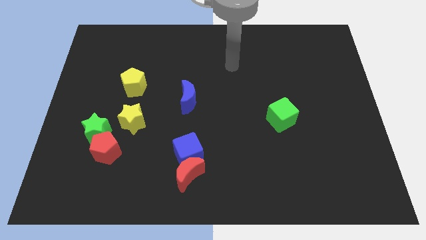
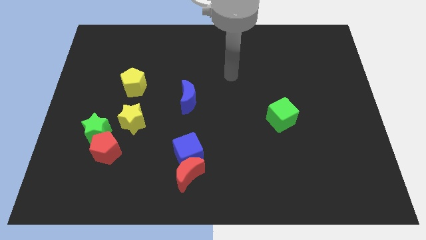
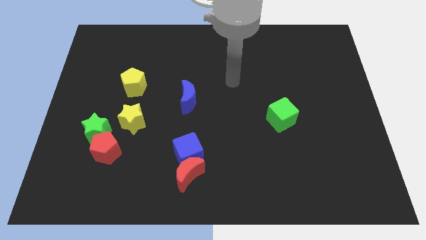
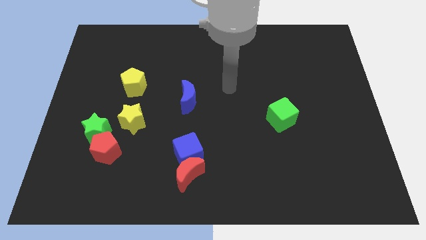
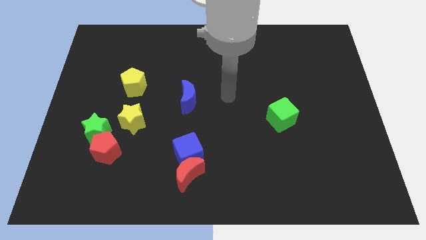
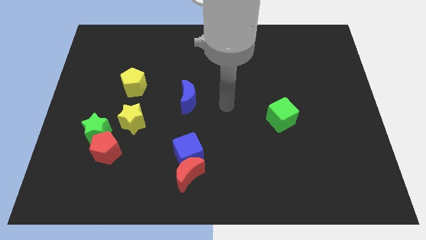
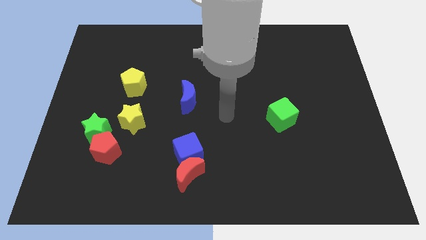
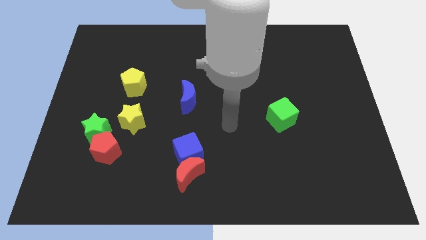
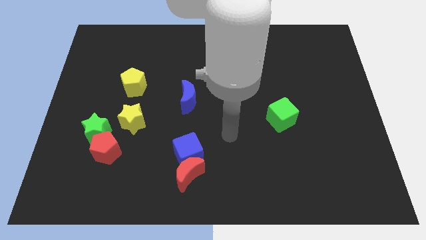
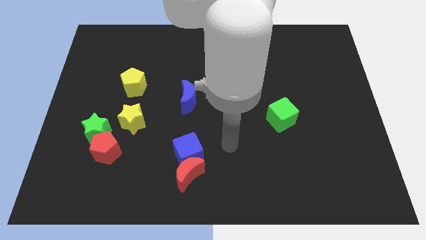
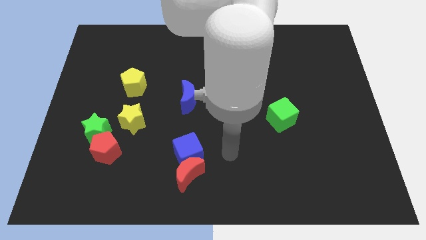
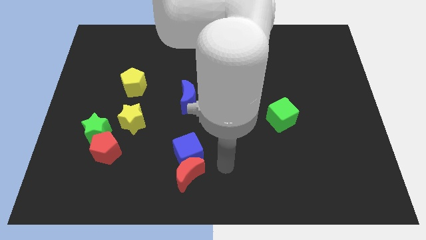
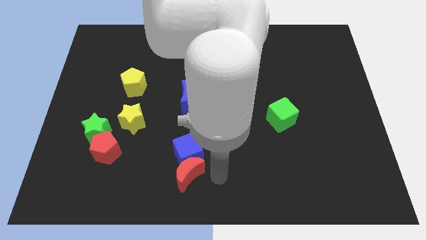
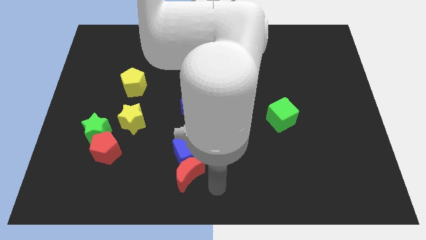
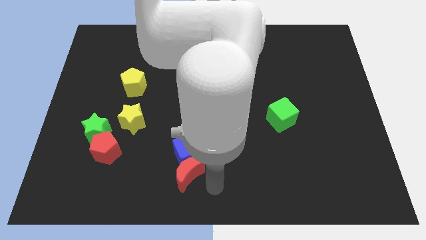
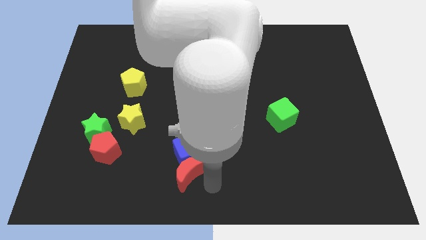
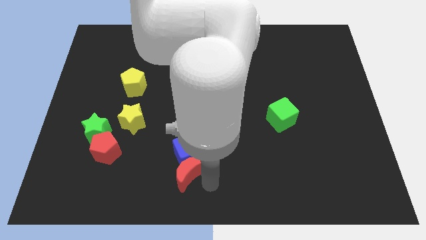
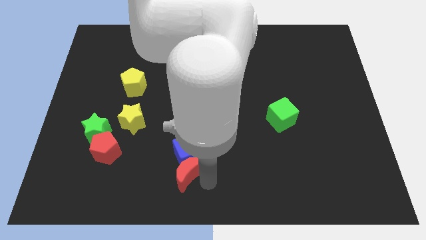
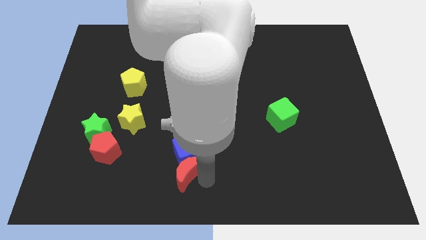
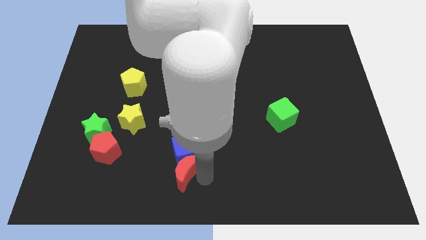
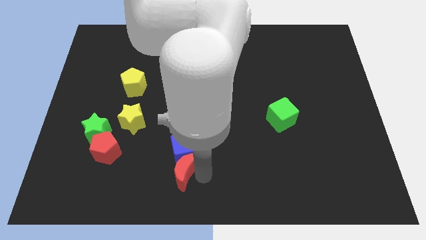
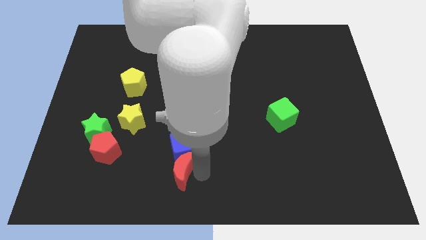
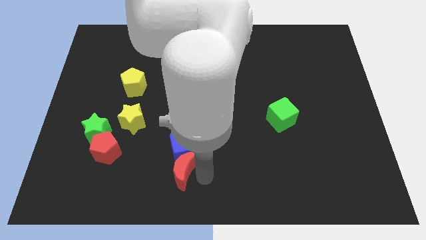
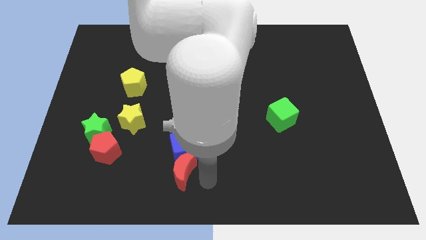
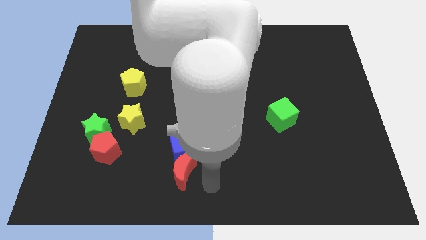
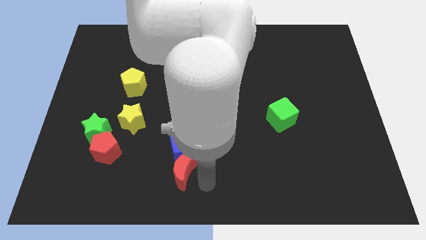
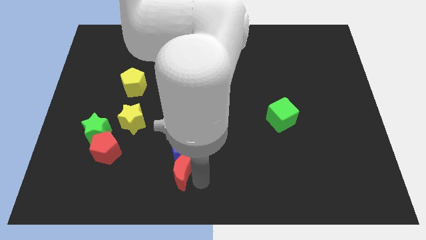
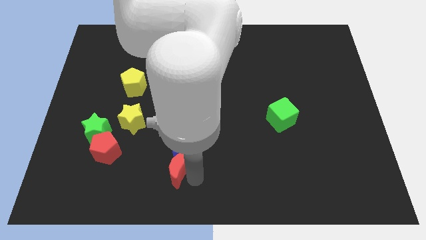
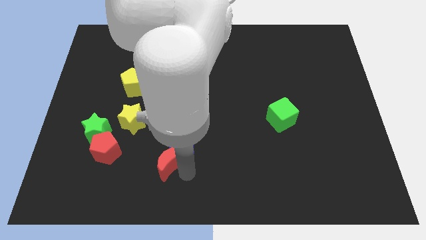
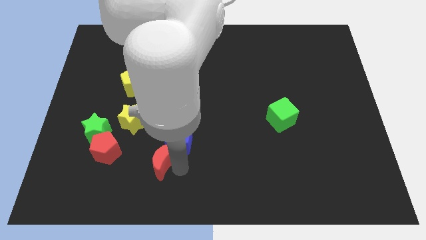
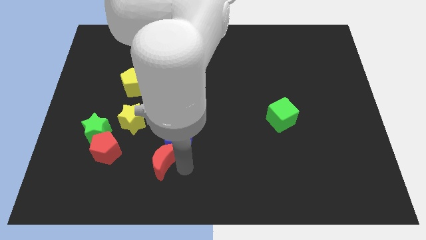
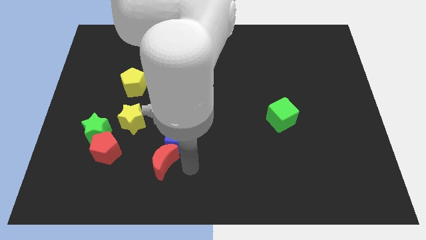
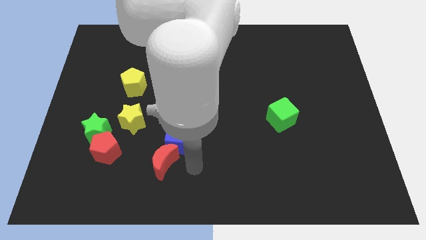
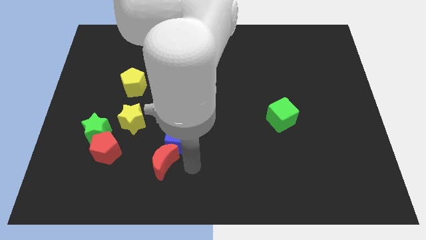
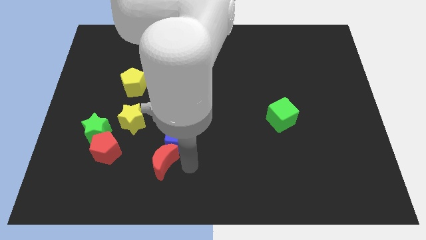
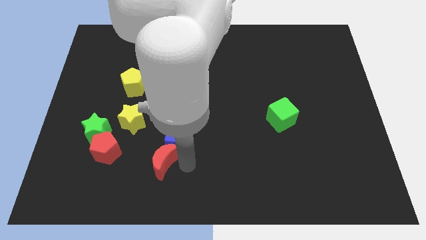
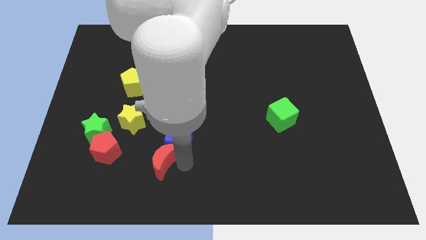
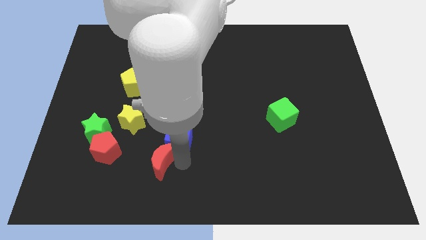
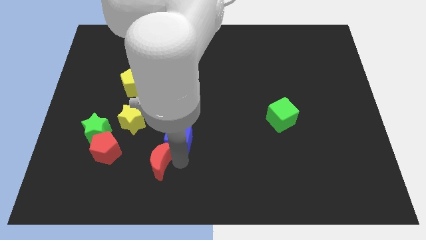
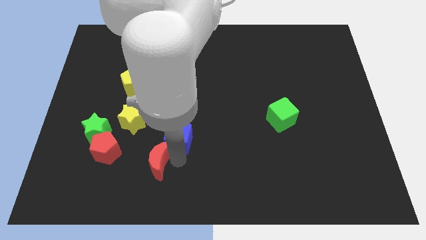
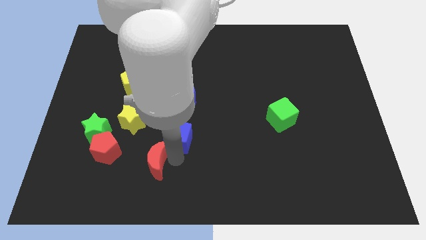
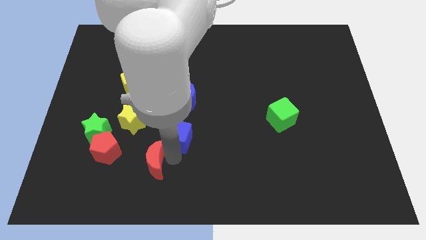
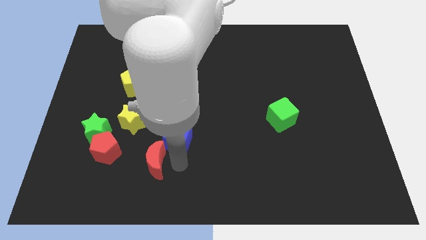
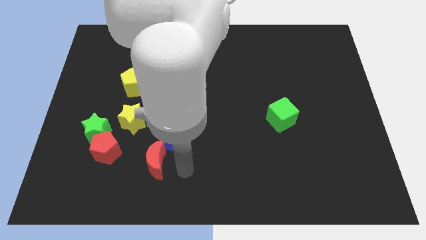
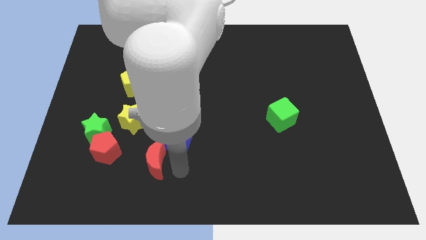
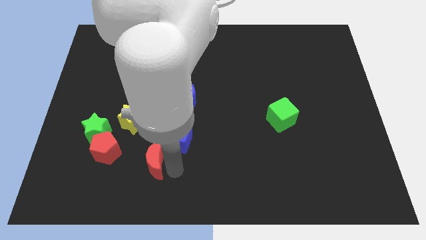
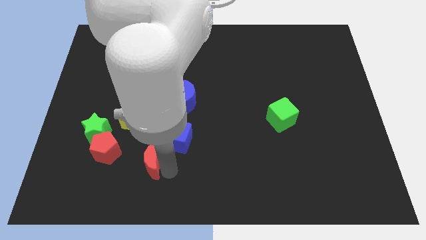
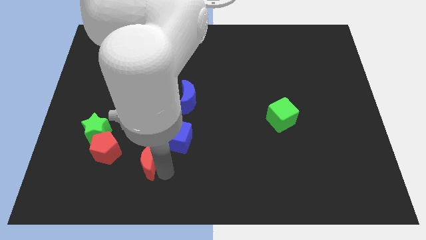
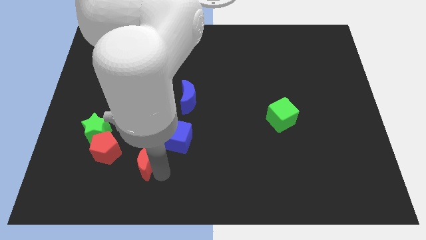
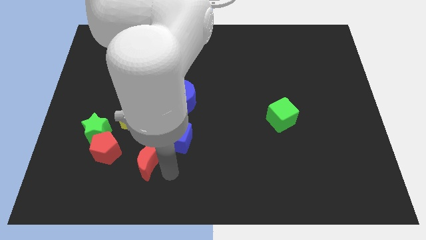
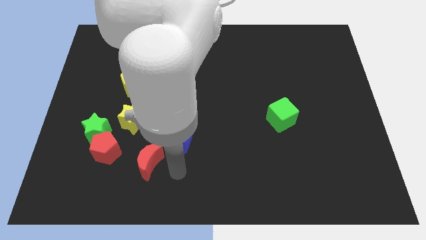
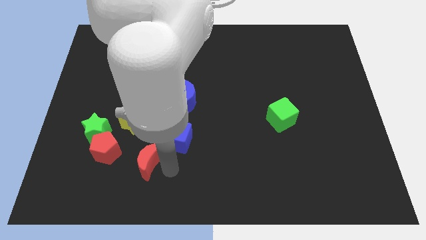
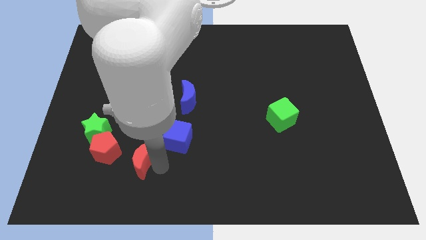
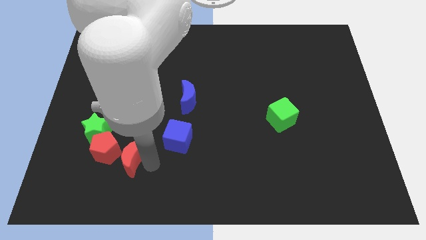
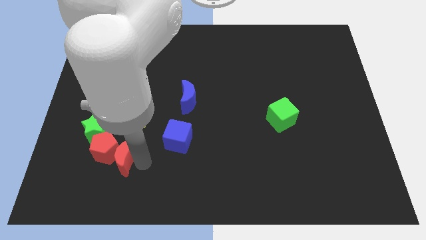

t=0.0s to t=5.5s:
put the red moon towards the red pentagon

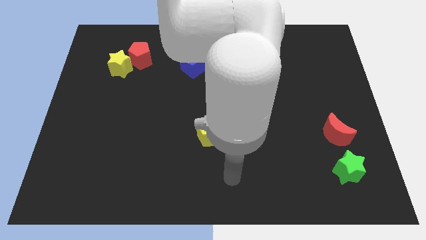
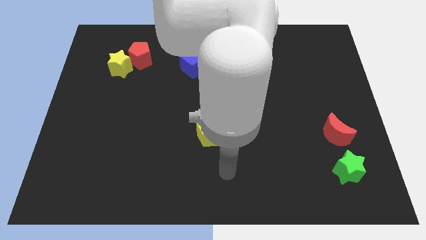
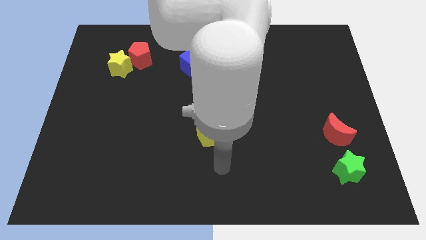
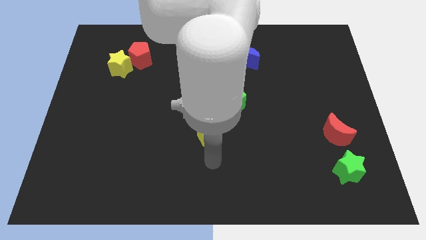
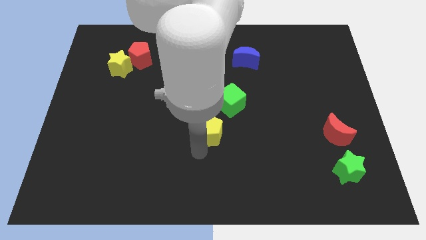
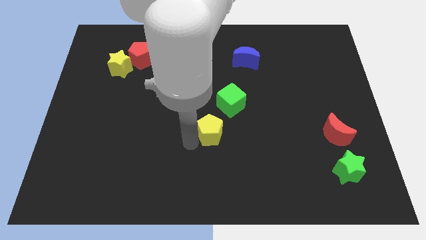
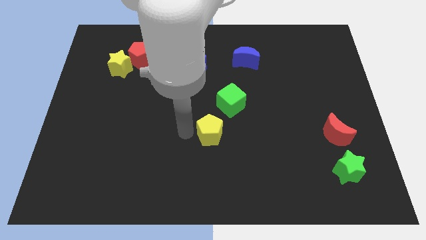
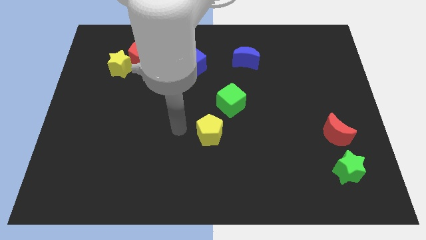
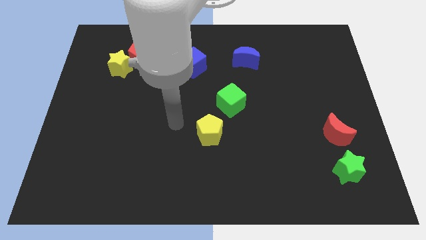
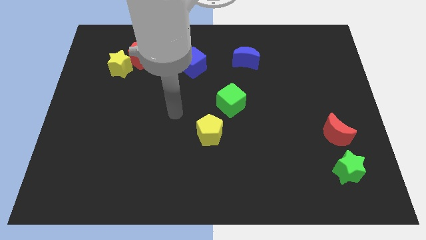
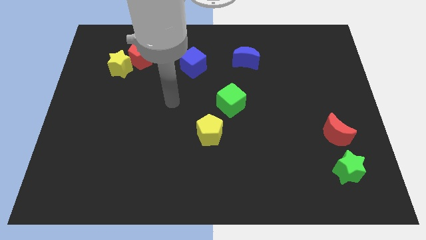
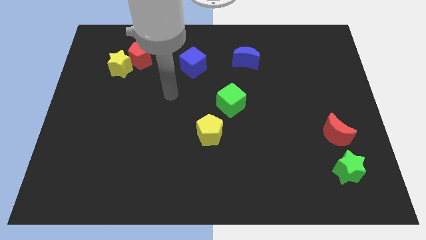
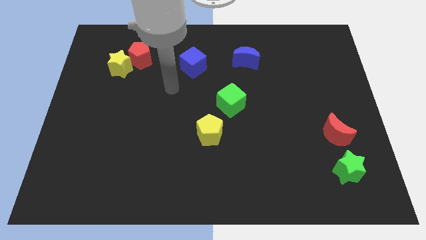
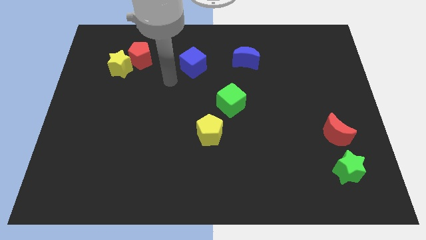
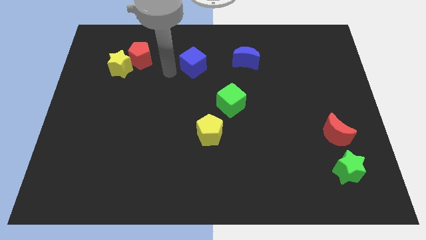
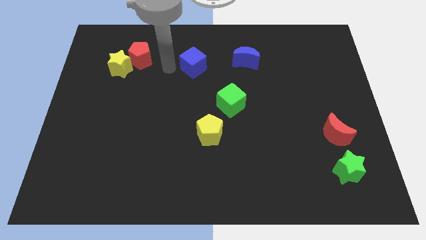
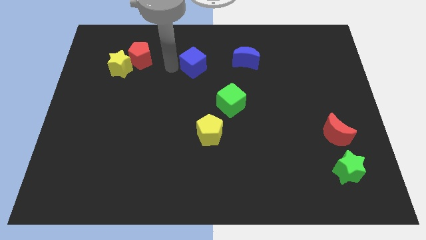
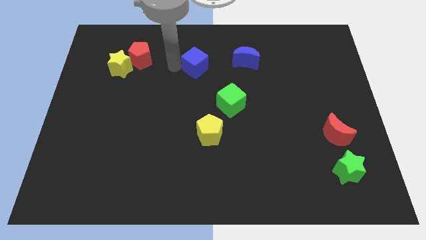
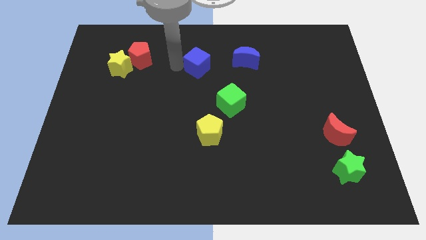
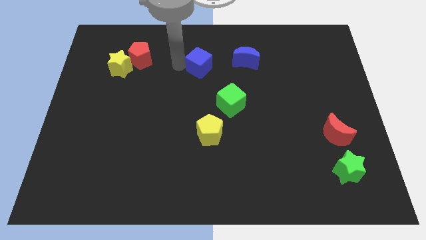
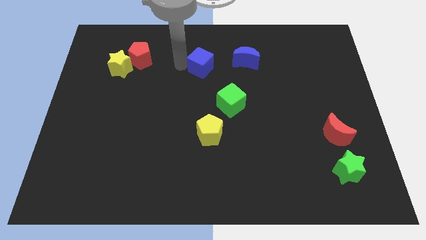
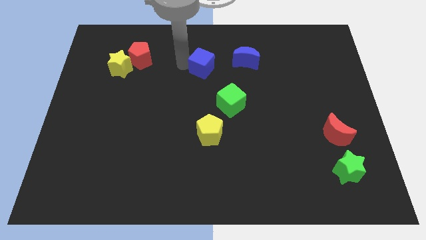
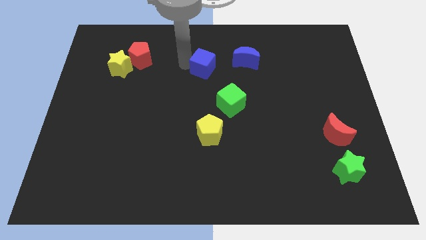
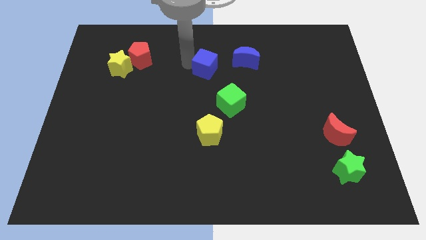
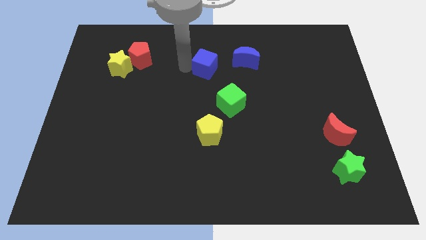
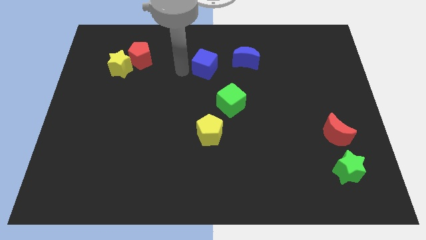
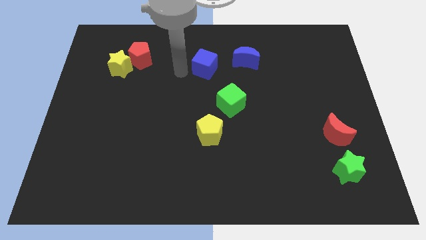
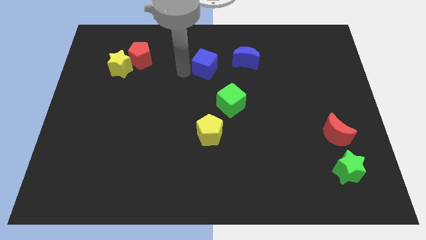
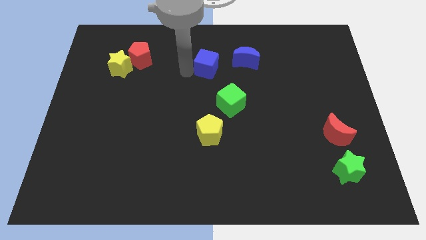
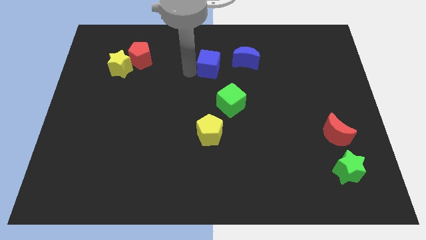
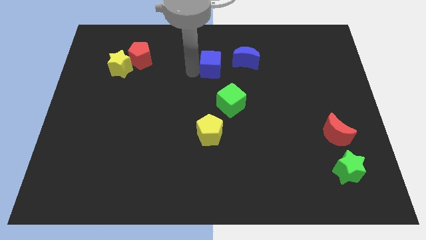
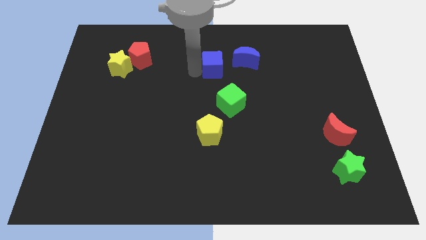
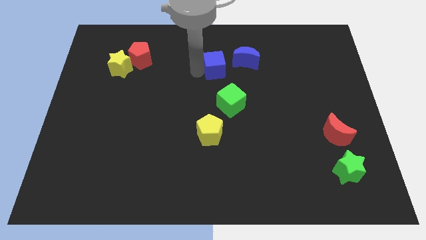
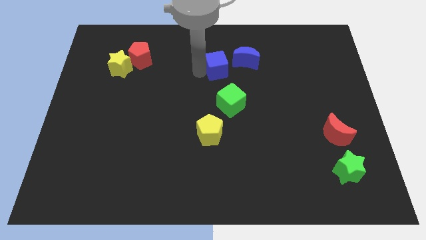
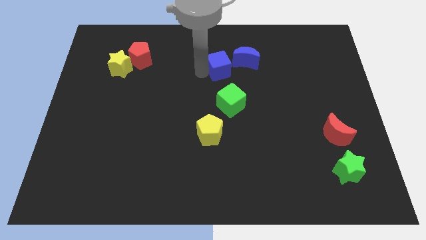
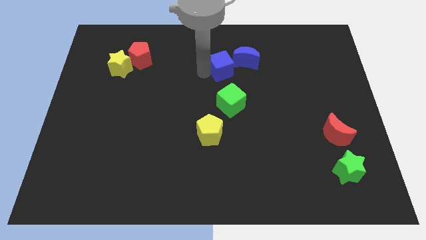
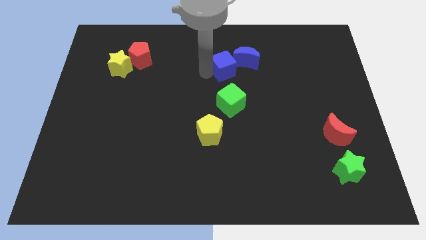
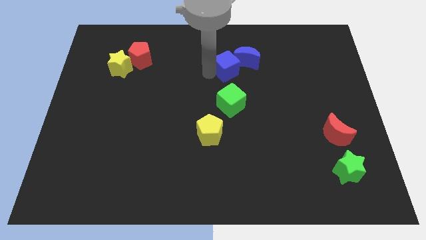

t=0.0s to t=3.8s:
slide the blue cube next to the blue moon
